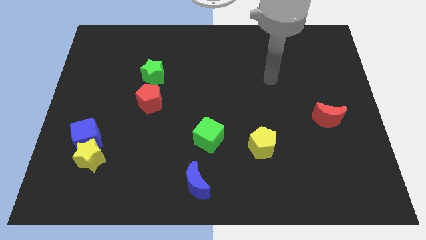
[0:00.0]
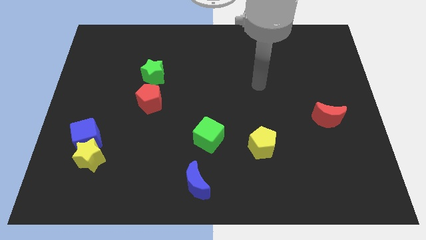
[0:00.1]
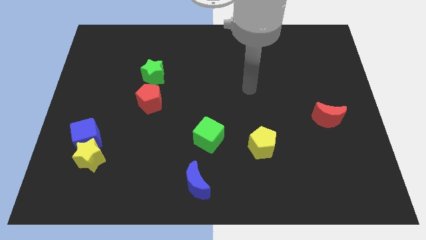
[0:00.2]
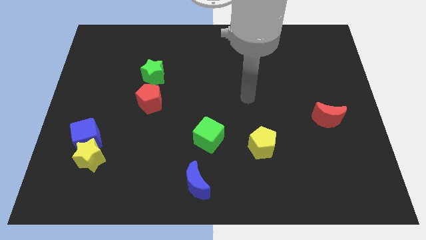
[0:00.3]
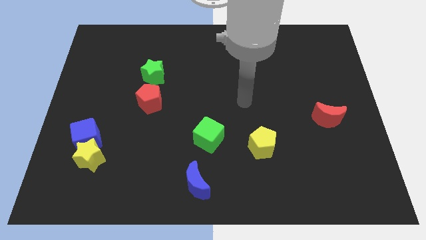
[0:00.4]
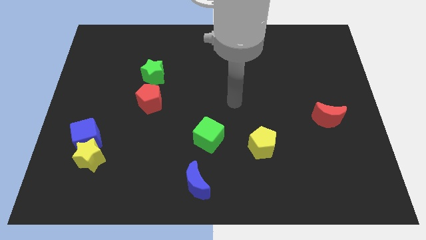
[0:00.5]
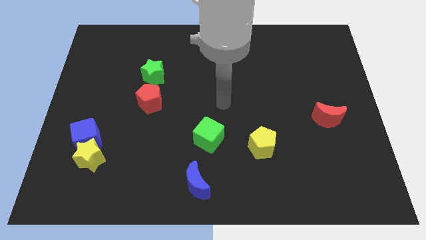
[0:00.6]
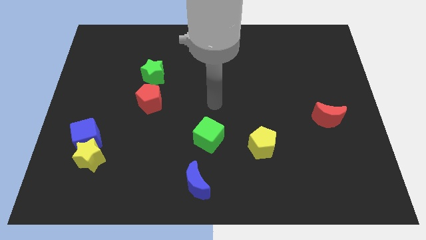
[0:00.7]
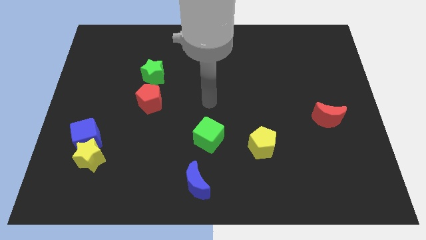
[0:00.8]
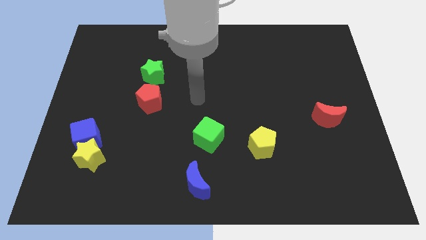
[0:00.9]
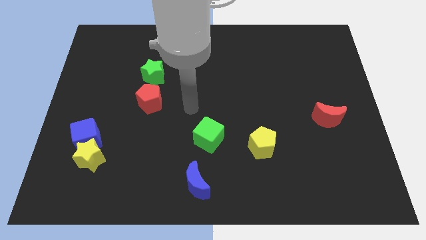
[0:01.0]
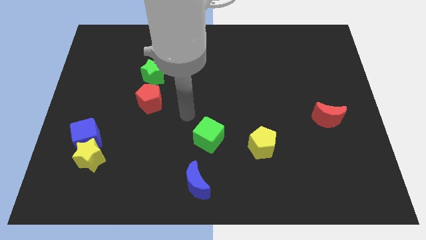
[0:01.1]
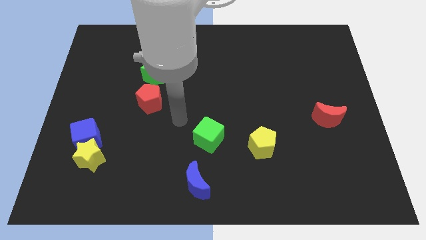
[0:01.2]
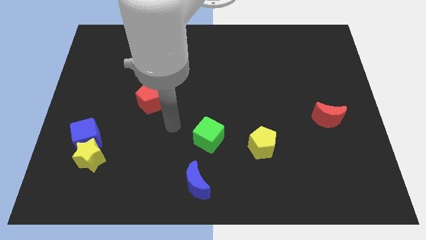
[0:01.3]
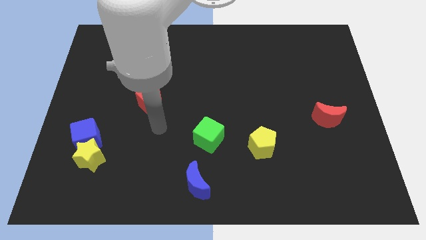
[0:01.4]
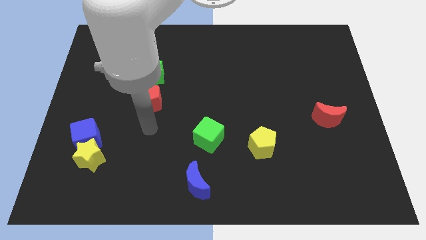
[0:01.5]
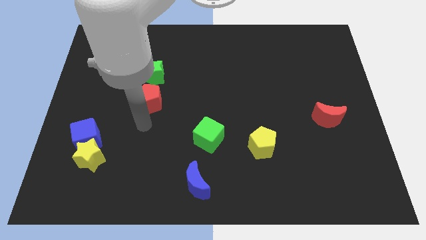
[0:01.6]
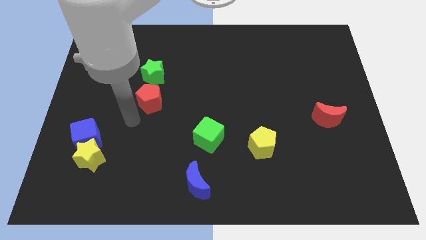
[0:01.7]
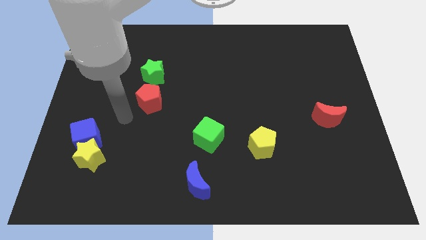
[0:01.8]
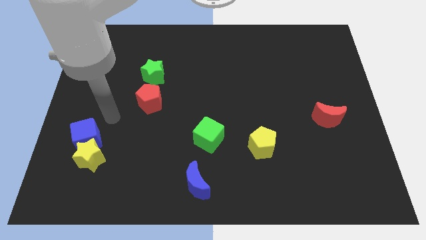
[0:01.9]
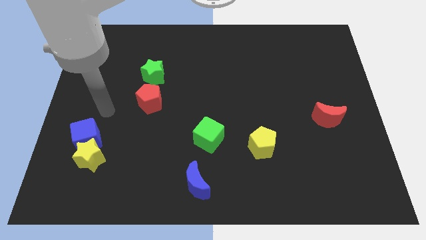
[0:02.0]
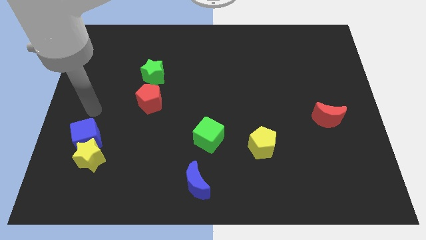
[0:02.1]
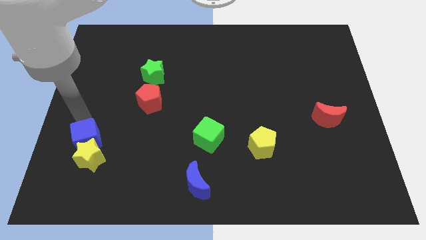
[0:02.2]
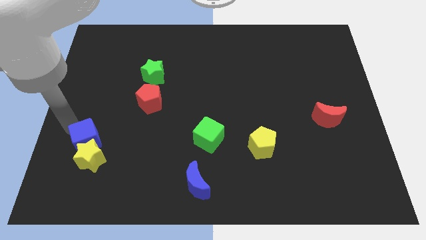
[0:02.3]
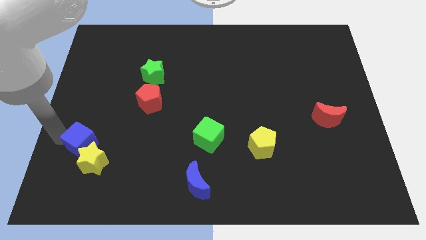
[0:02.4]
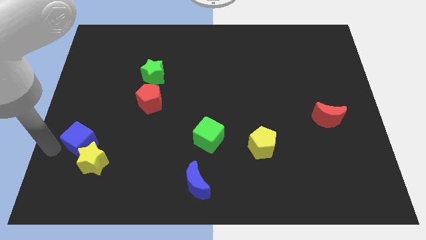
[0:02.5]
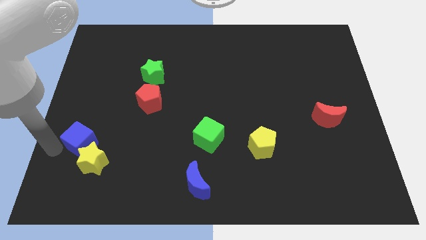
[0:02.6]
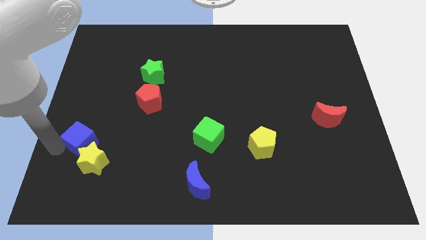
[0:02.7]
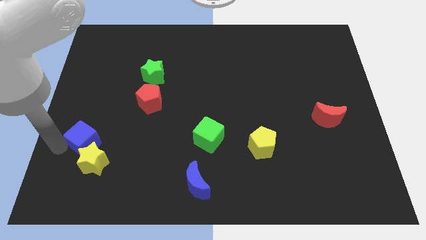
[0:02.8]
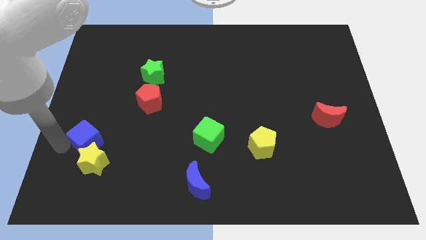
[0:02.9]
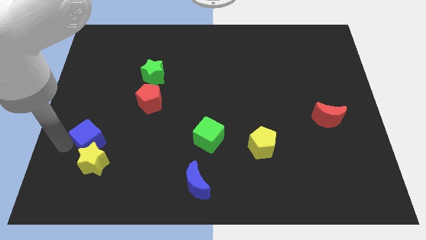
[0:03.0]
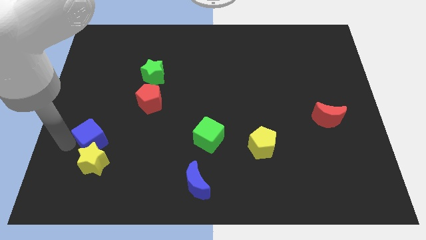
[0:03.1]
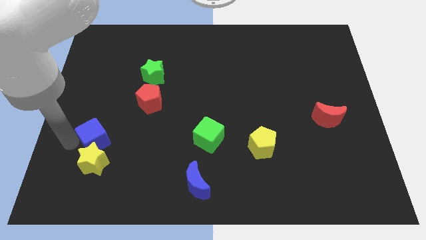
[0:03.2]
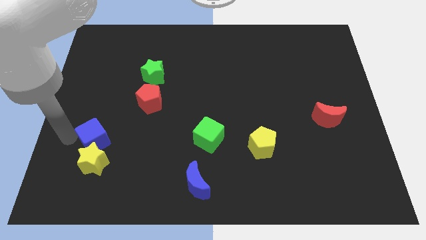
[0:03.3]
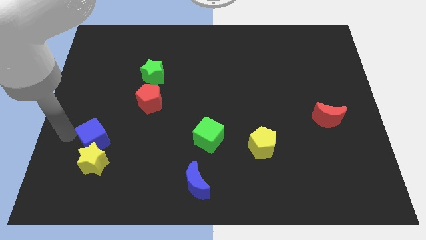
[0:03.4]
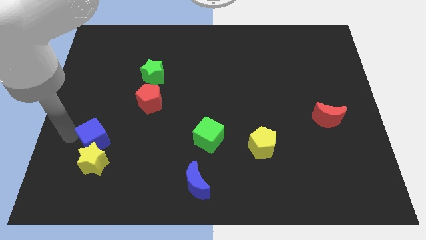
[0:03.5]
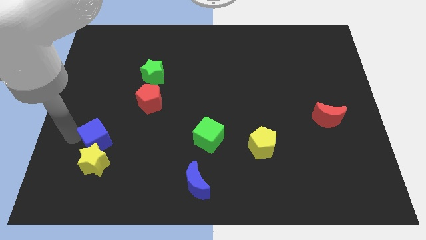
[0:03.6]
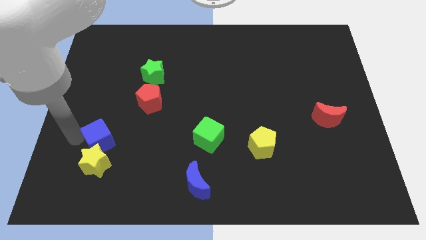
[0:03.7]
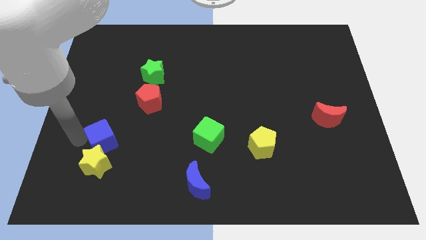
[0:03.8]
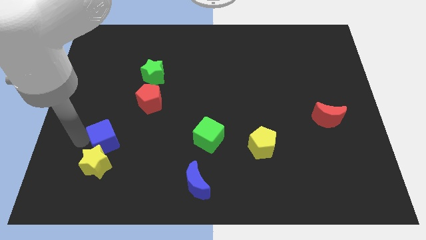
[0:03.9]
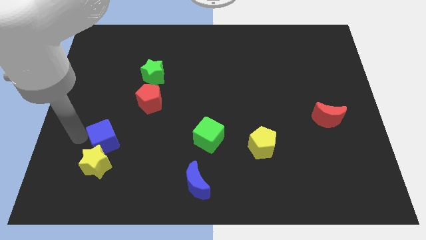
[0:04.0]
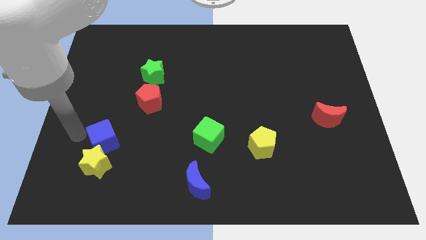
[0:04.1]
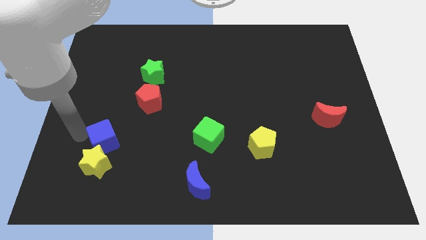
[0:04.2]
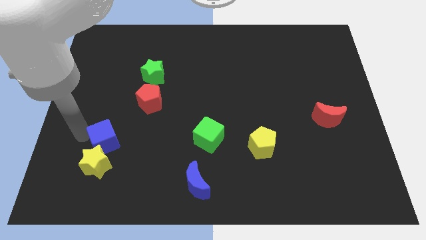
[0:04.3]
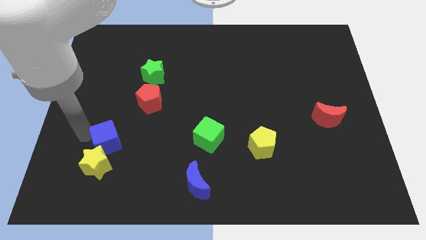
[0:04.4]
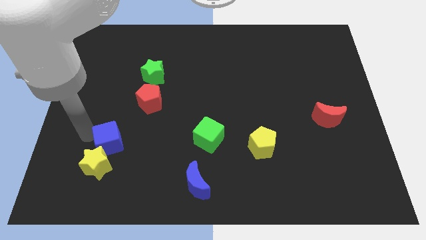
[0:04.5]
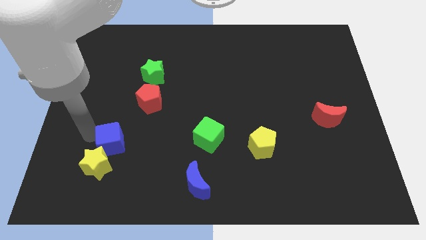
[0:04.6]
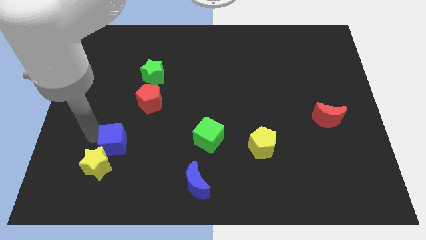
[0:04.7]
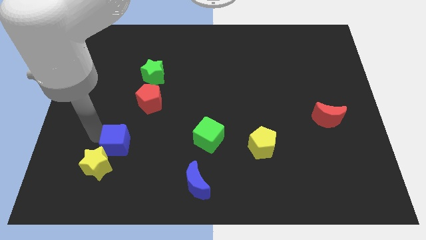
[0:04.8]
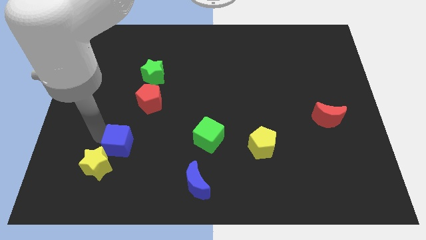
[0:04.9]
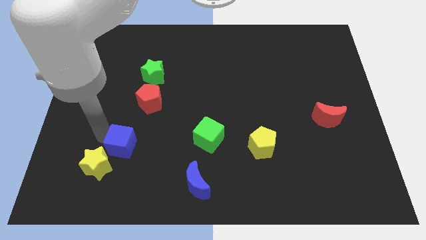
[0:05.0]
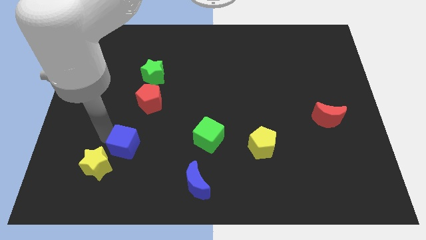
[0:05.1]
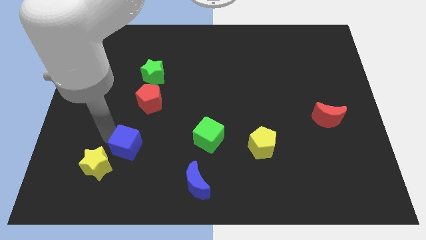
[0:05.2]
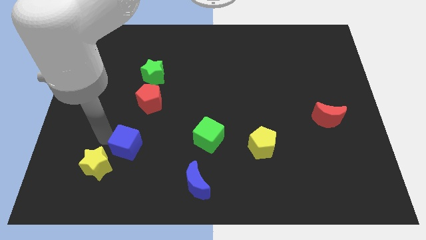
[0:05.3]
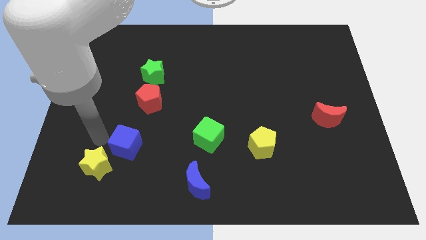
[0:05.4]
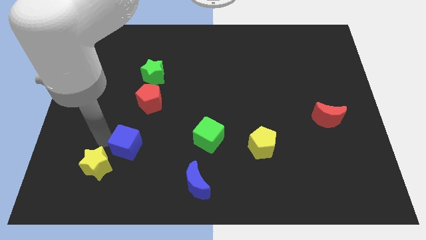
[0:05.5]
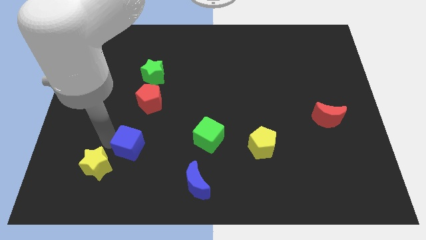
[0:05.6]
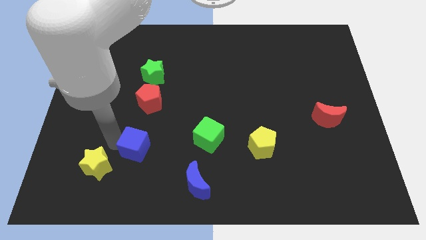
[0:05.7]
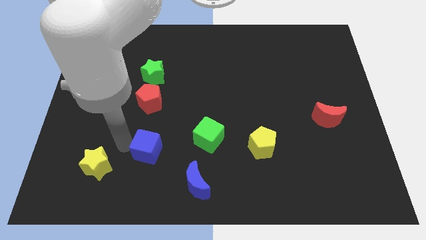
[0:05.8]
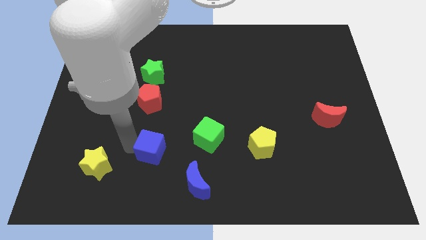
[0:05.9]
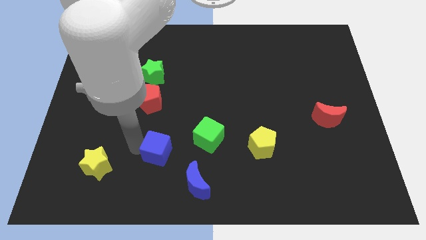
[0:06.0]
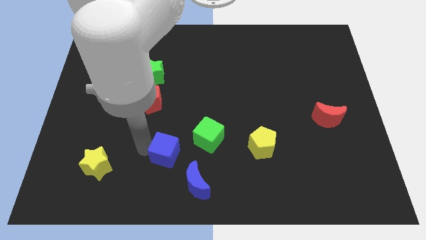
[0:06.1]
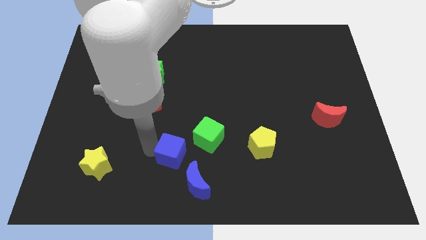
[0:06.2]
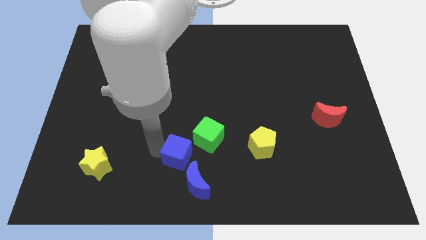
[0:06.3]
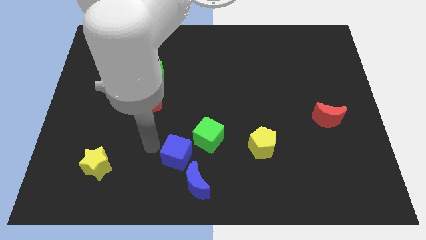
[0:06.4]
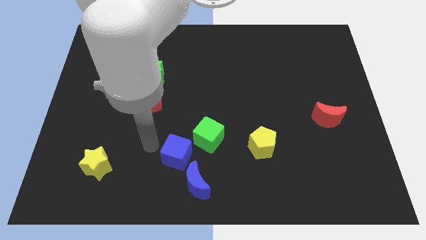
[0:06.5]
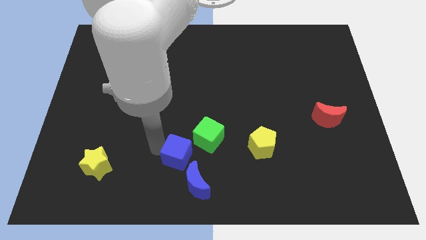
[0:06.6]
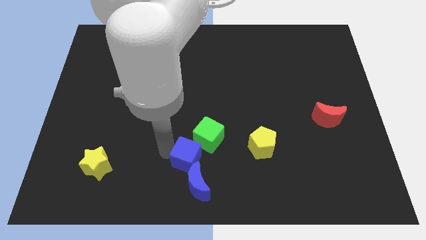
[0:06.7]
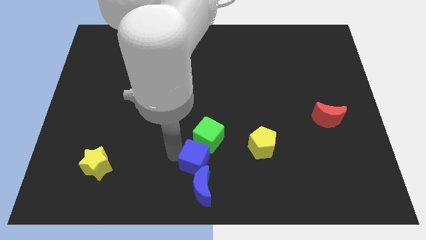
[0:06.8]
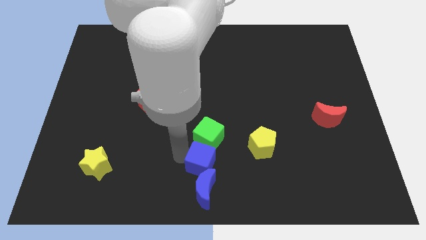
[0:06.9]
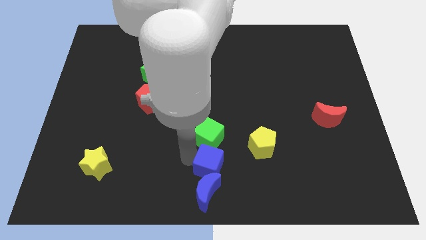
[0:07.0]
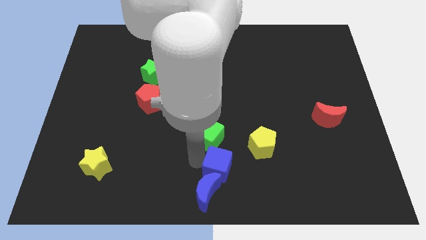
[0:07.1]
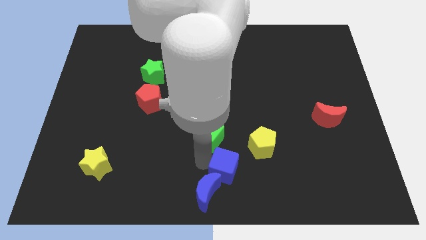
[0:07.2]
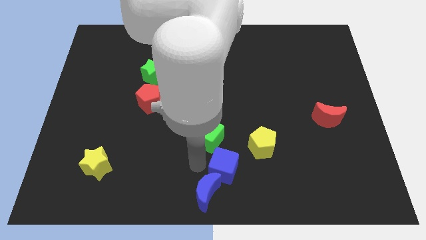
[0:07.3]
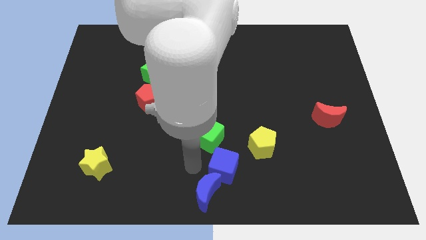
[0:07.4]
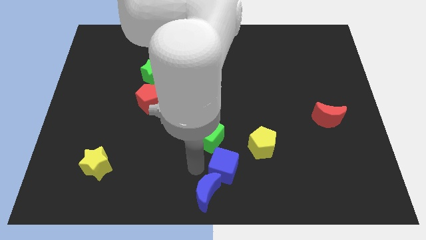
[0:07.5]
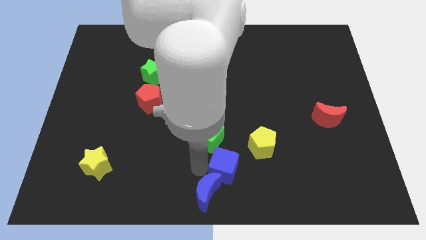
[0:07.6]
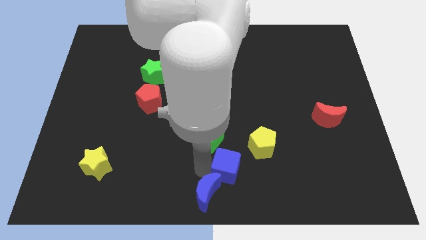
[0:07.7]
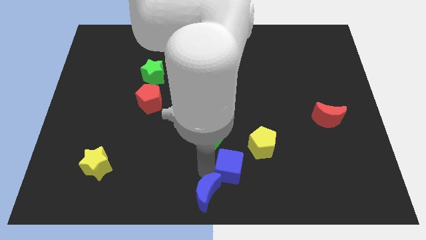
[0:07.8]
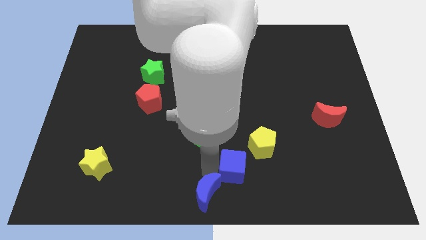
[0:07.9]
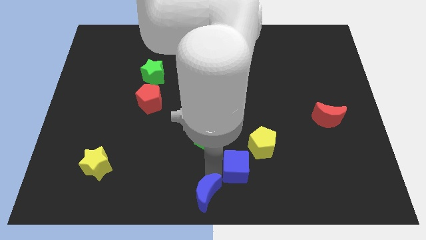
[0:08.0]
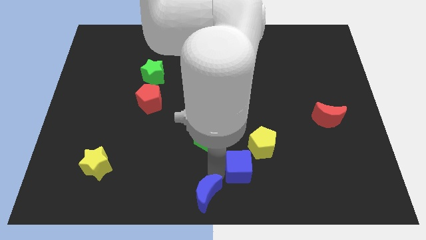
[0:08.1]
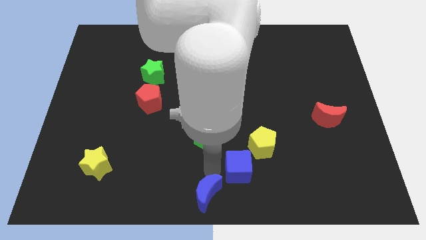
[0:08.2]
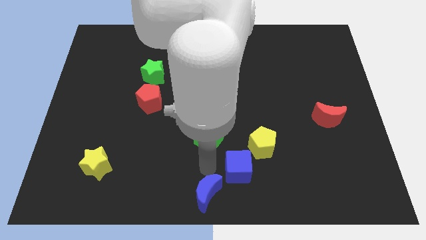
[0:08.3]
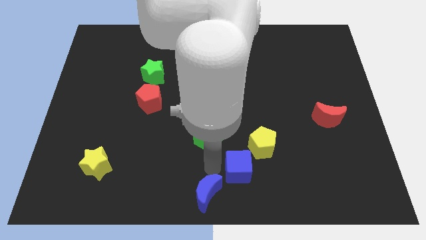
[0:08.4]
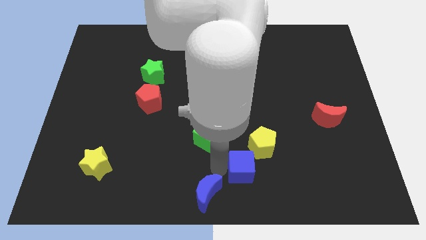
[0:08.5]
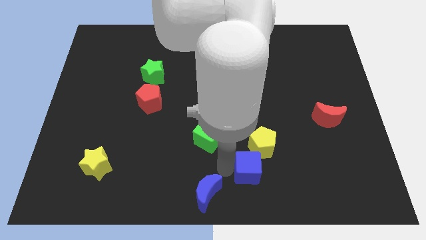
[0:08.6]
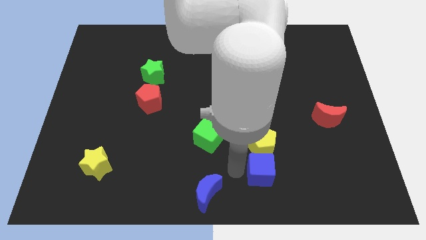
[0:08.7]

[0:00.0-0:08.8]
push the blue cube to the bottom right side of the yellow pentagon
